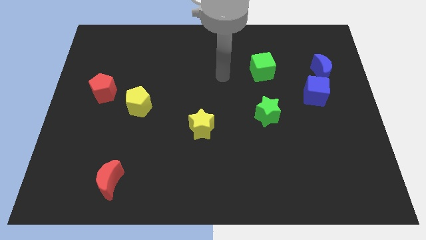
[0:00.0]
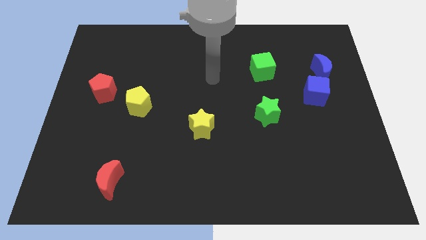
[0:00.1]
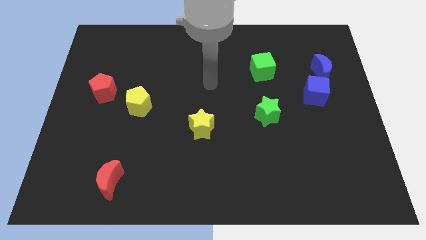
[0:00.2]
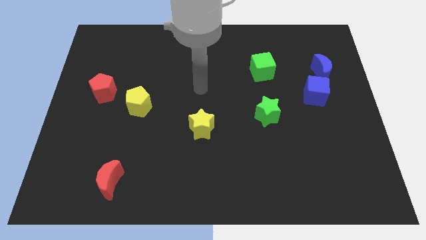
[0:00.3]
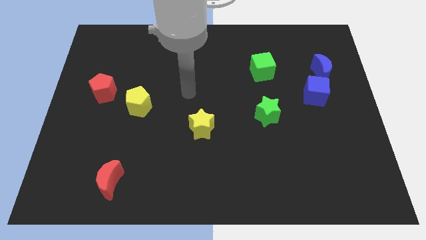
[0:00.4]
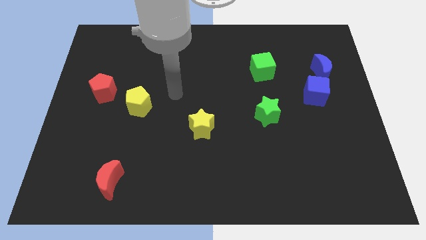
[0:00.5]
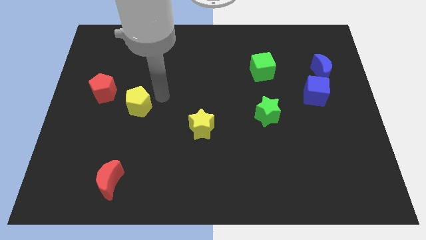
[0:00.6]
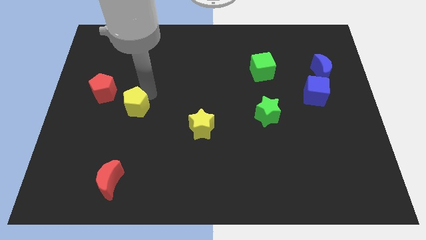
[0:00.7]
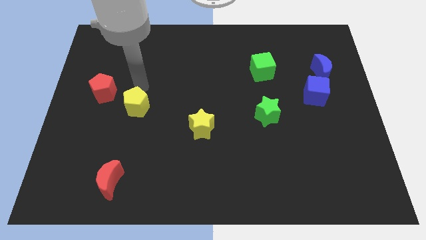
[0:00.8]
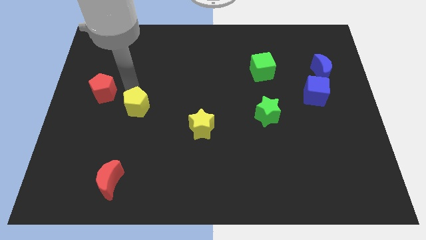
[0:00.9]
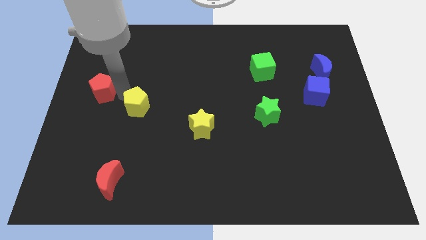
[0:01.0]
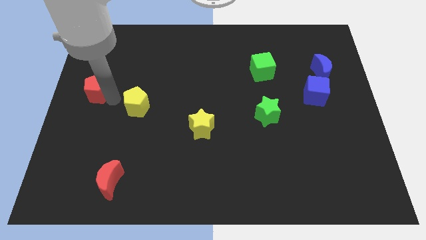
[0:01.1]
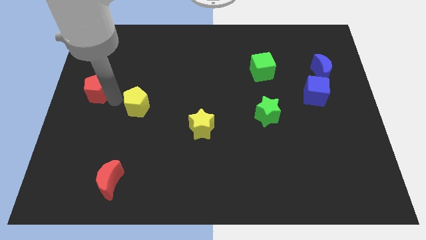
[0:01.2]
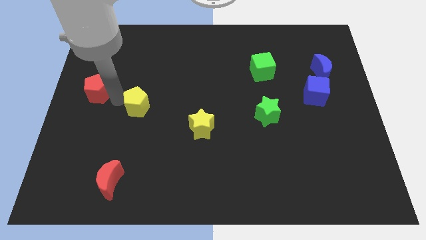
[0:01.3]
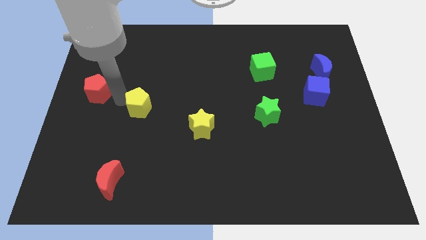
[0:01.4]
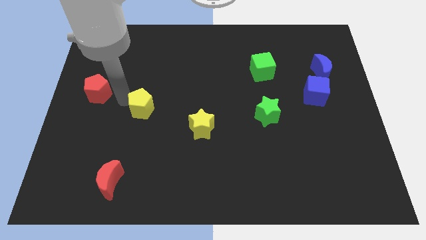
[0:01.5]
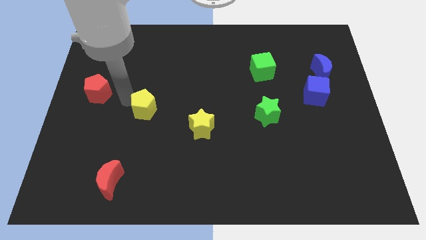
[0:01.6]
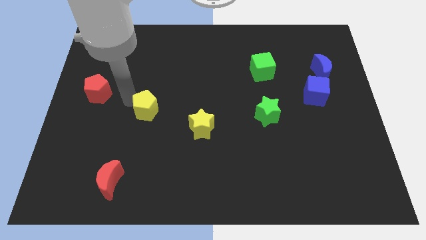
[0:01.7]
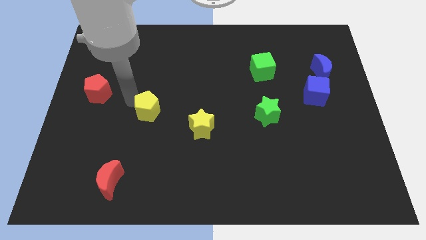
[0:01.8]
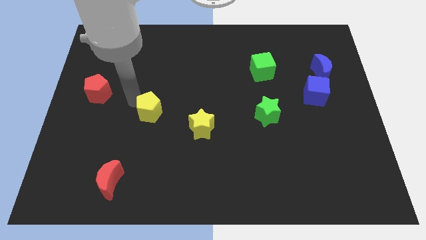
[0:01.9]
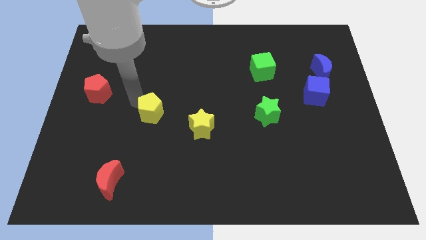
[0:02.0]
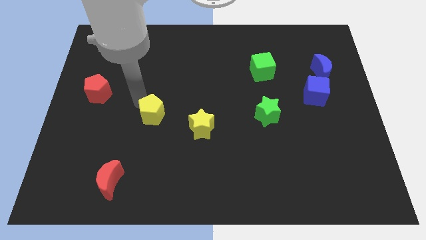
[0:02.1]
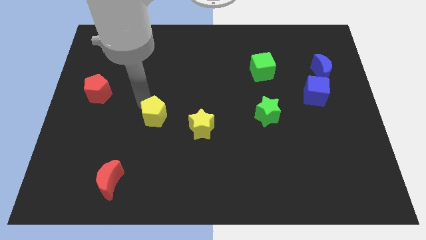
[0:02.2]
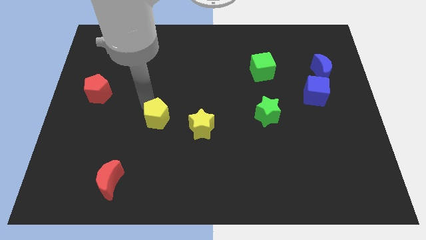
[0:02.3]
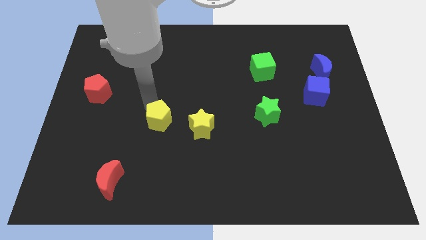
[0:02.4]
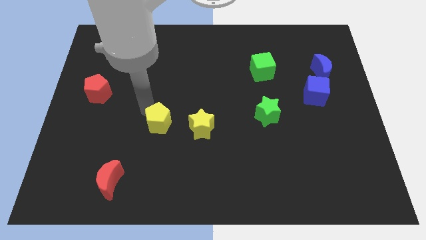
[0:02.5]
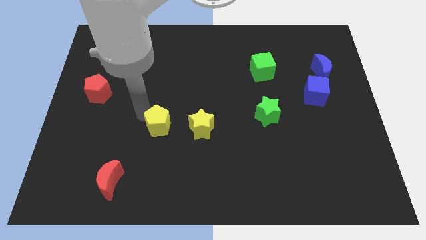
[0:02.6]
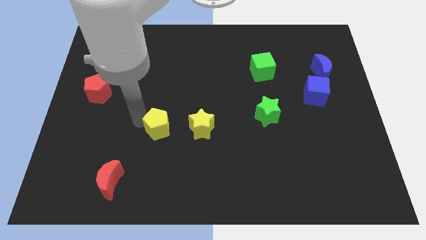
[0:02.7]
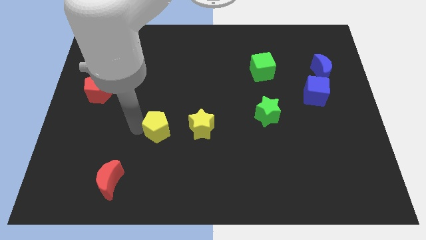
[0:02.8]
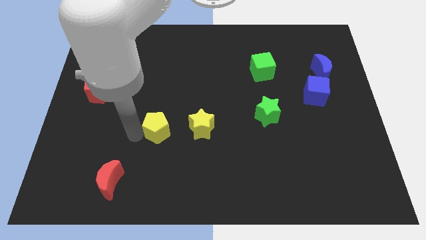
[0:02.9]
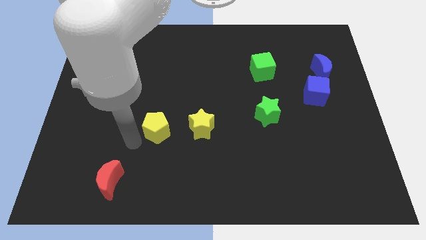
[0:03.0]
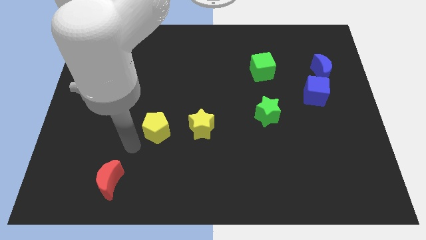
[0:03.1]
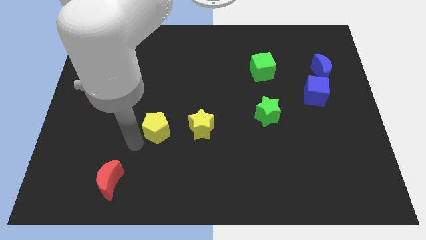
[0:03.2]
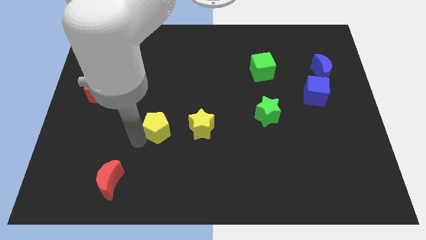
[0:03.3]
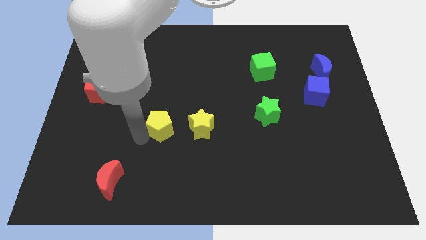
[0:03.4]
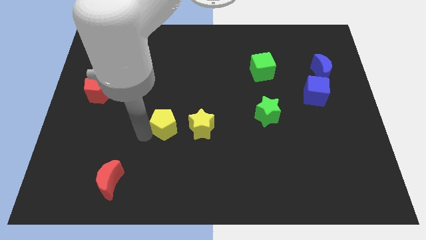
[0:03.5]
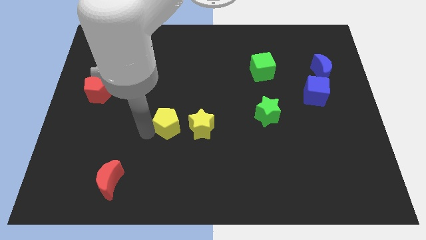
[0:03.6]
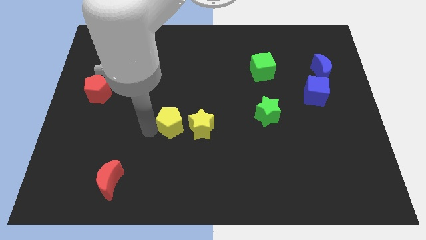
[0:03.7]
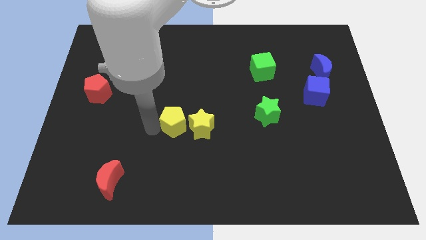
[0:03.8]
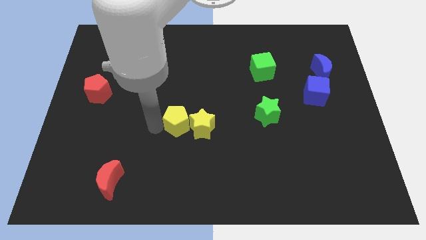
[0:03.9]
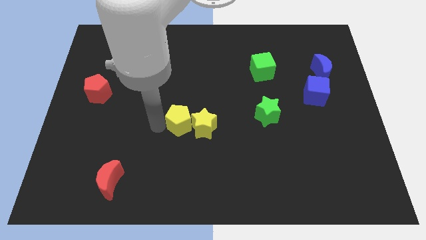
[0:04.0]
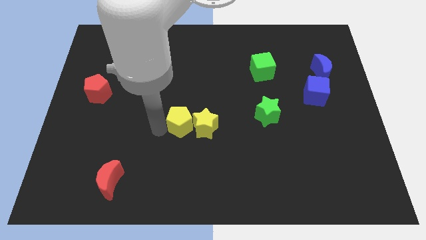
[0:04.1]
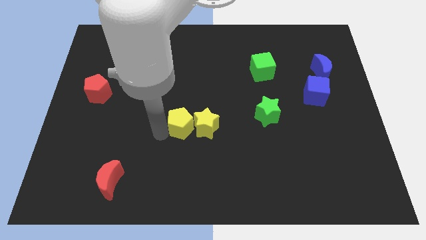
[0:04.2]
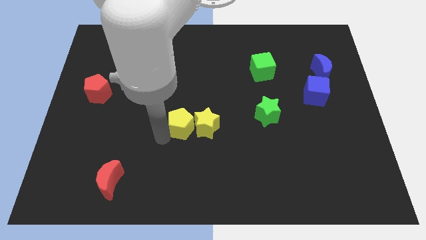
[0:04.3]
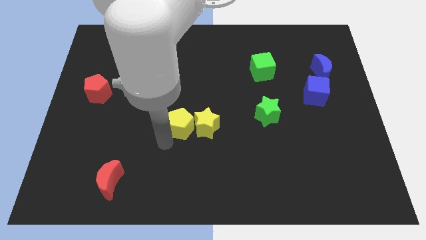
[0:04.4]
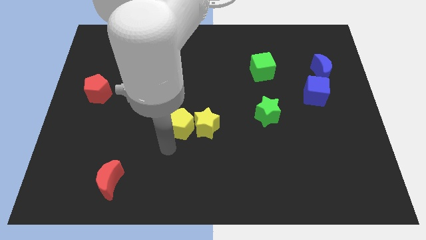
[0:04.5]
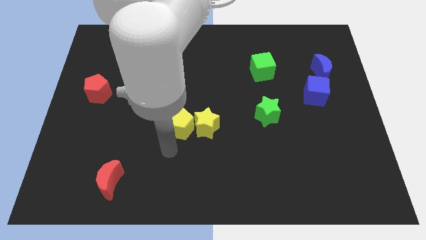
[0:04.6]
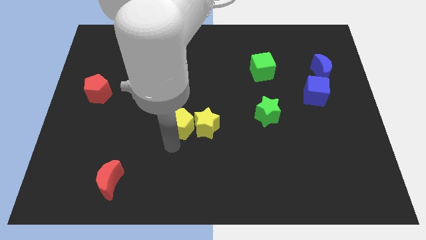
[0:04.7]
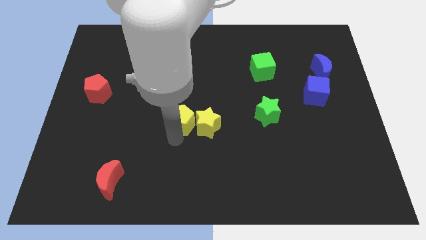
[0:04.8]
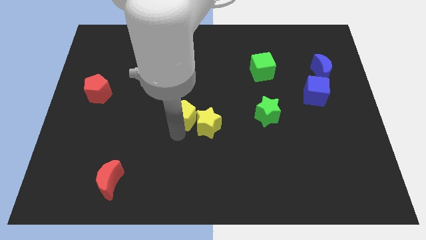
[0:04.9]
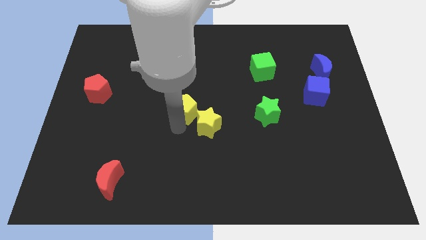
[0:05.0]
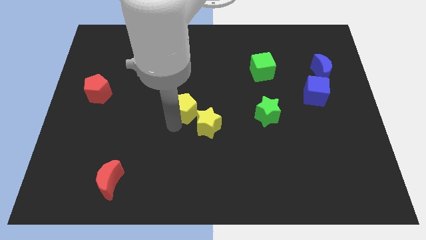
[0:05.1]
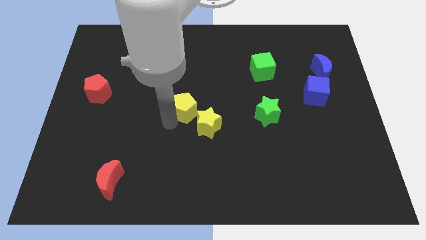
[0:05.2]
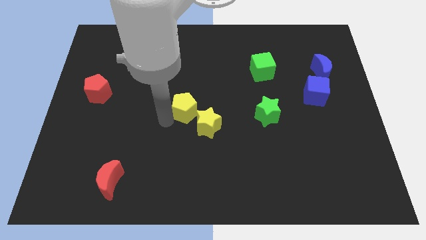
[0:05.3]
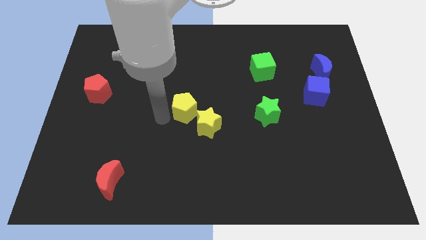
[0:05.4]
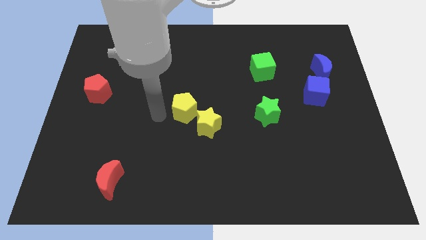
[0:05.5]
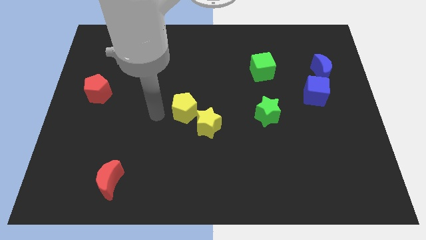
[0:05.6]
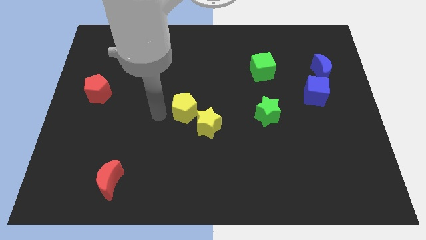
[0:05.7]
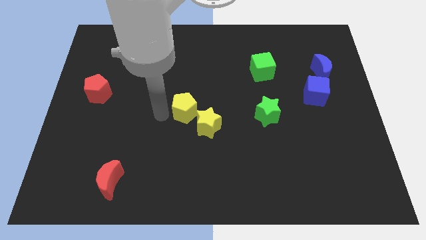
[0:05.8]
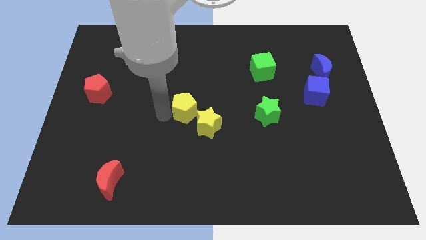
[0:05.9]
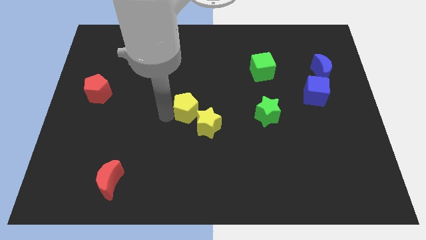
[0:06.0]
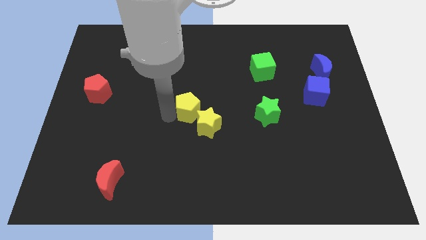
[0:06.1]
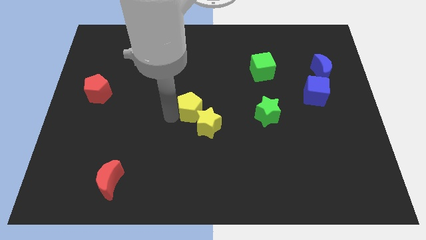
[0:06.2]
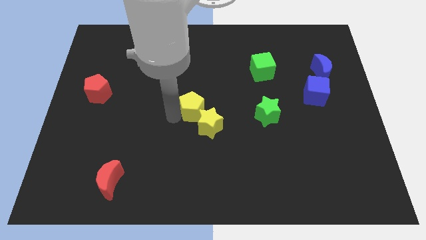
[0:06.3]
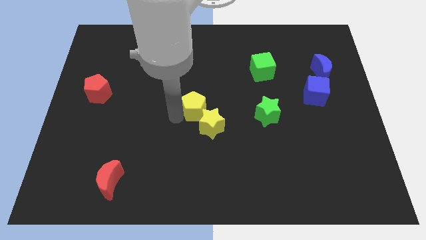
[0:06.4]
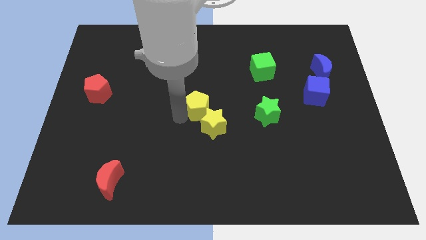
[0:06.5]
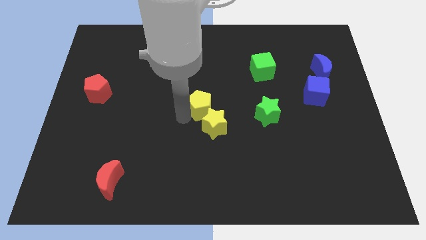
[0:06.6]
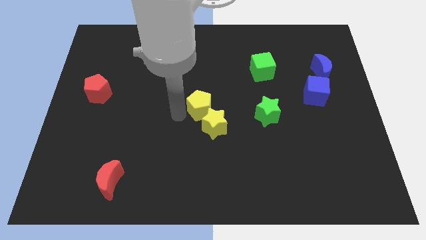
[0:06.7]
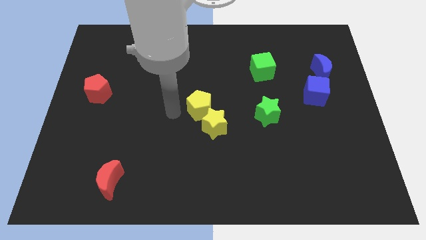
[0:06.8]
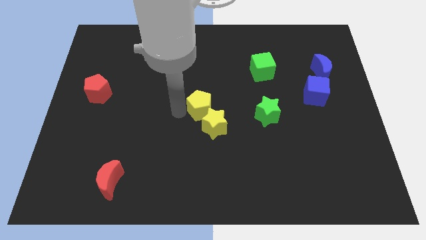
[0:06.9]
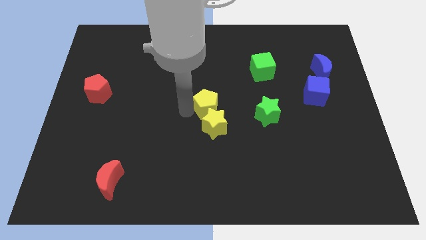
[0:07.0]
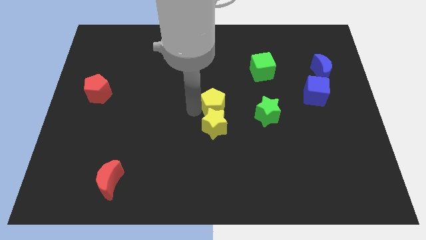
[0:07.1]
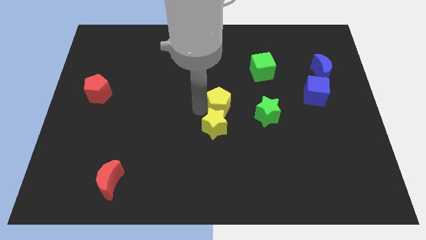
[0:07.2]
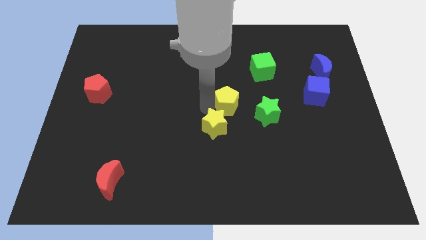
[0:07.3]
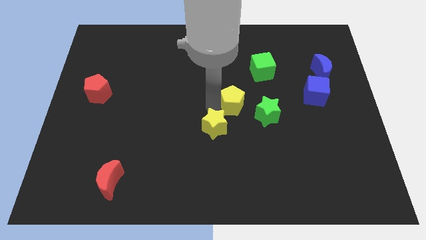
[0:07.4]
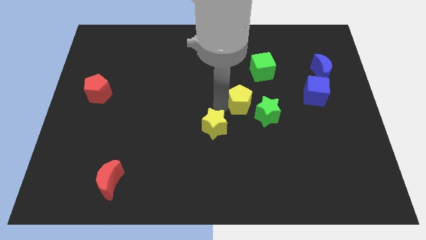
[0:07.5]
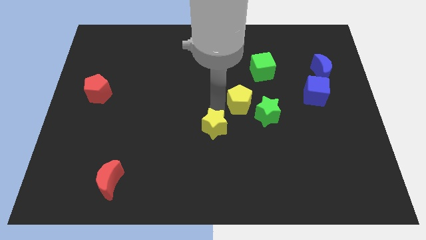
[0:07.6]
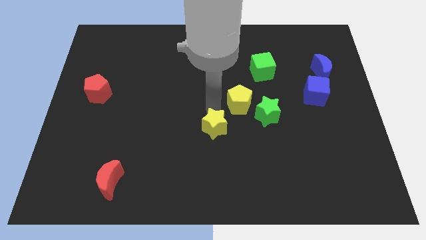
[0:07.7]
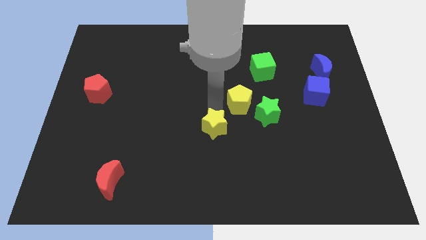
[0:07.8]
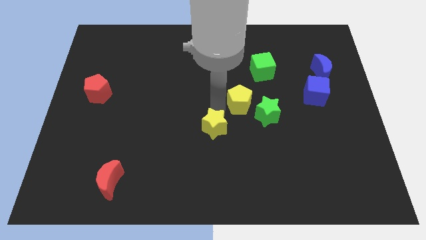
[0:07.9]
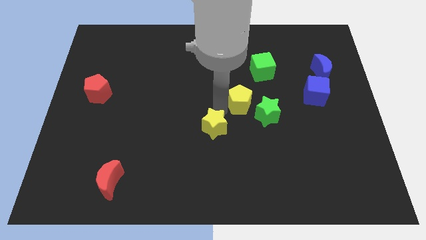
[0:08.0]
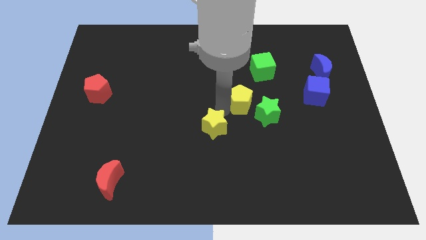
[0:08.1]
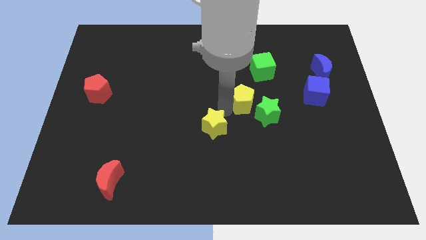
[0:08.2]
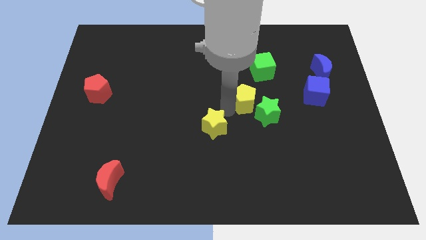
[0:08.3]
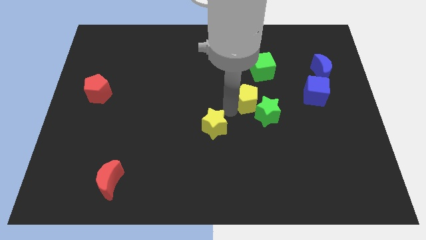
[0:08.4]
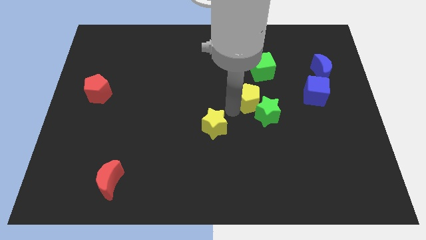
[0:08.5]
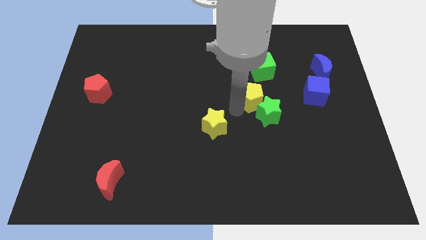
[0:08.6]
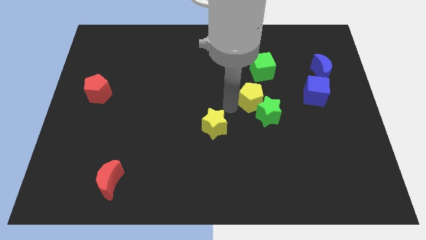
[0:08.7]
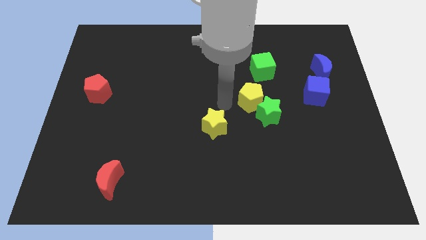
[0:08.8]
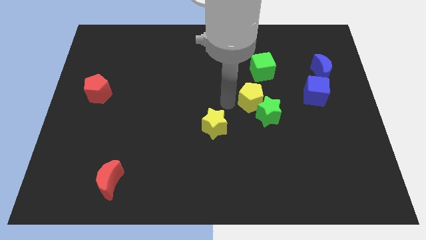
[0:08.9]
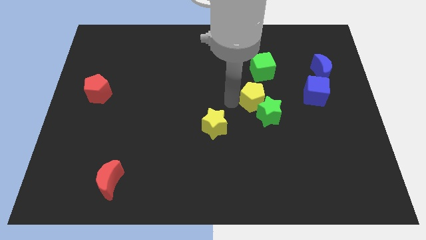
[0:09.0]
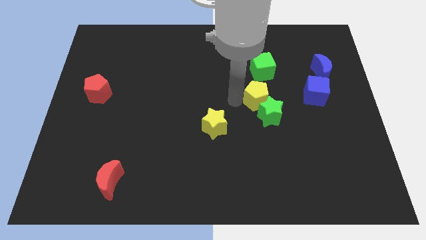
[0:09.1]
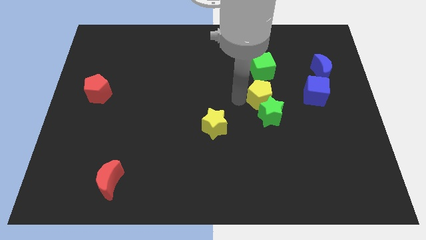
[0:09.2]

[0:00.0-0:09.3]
put the yellow pentagon to the top right side of the green star
